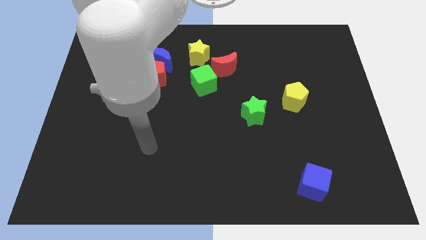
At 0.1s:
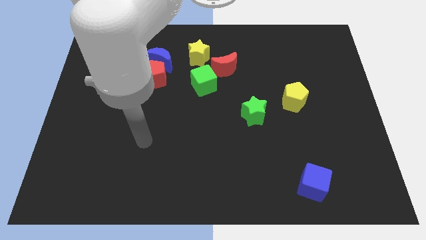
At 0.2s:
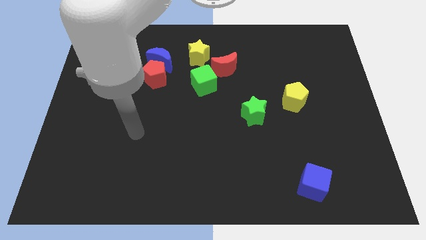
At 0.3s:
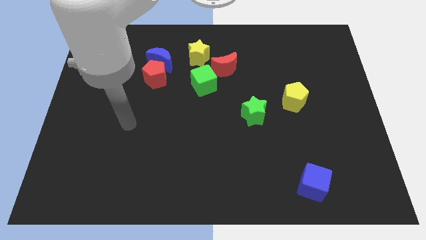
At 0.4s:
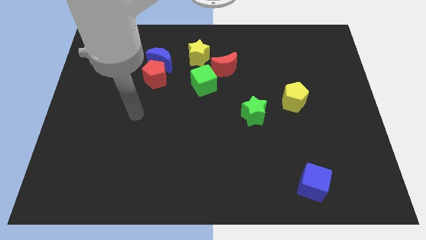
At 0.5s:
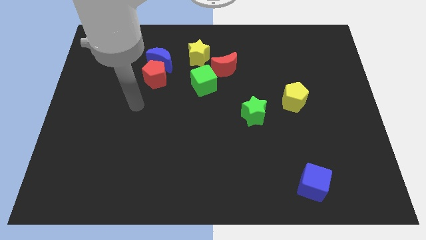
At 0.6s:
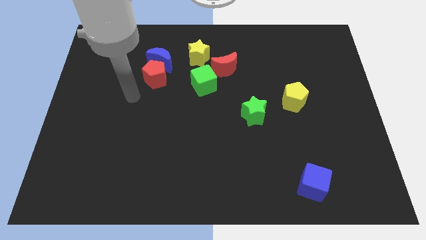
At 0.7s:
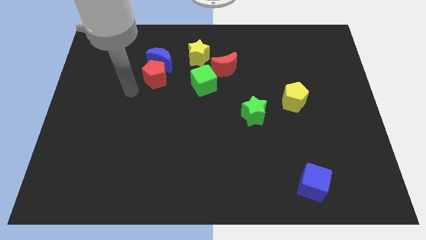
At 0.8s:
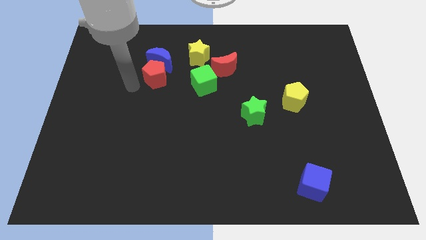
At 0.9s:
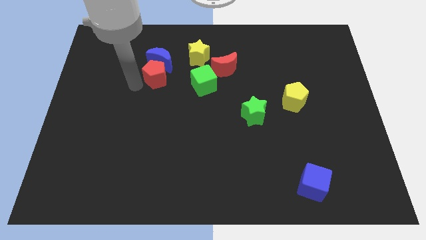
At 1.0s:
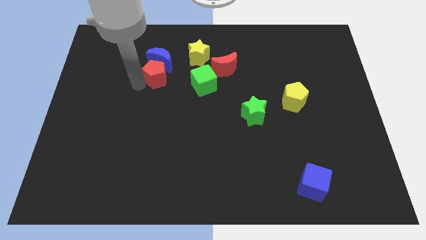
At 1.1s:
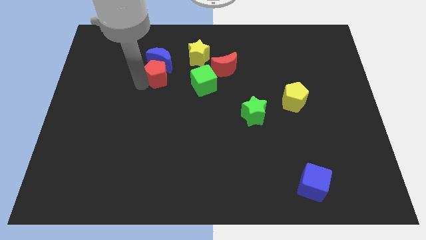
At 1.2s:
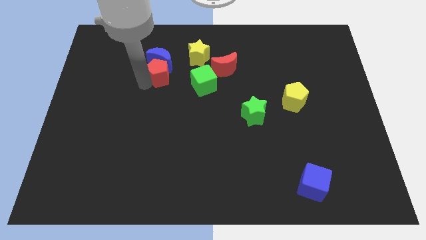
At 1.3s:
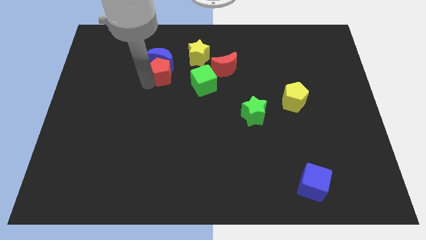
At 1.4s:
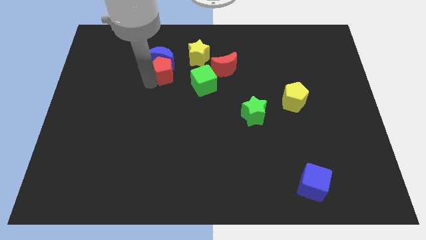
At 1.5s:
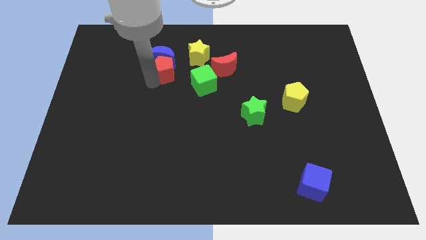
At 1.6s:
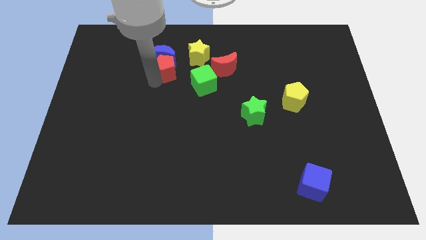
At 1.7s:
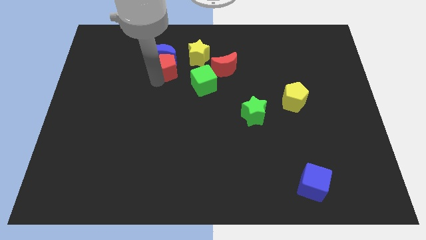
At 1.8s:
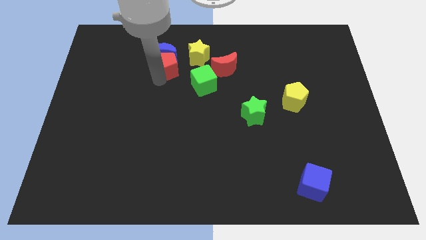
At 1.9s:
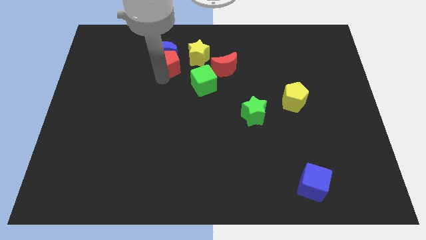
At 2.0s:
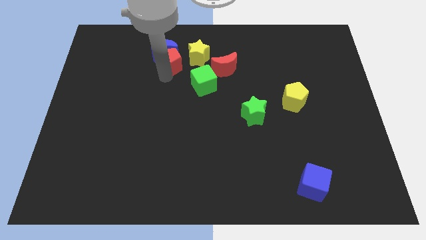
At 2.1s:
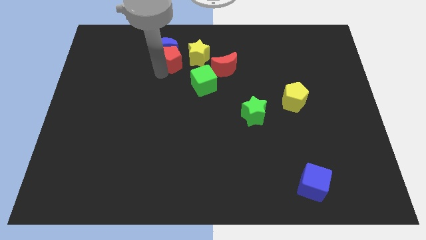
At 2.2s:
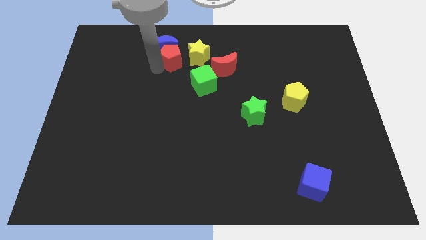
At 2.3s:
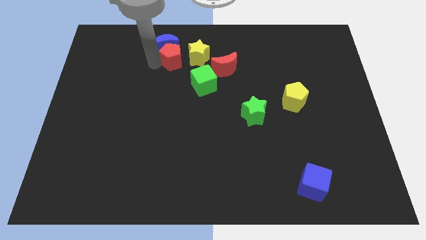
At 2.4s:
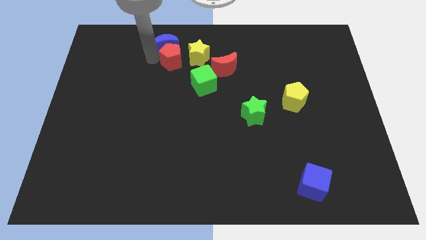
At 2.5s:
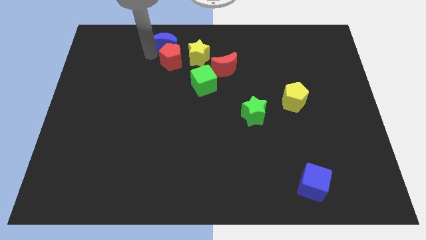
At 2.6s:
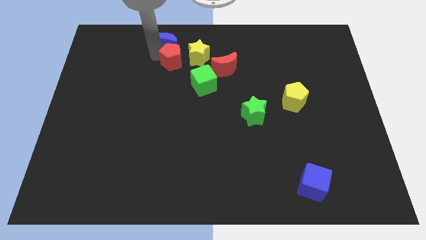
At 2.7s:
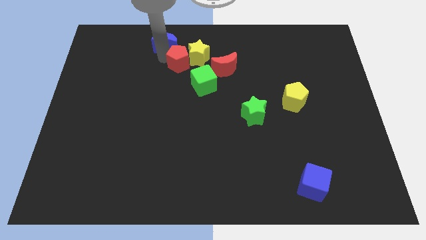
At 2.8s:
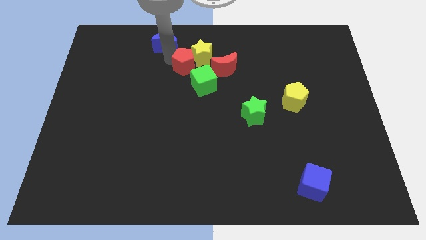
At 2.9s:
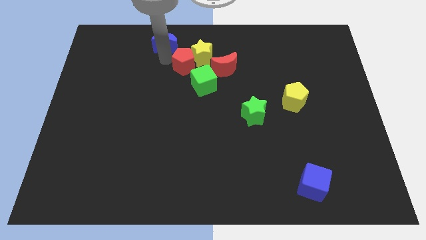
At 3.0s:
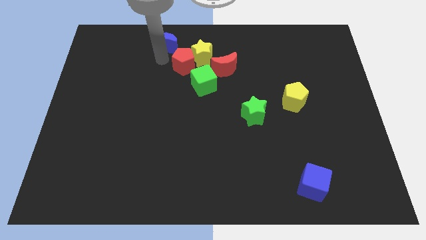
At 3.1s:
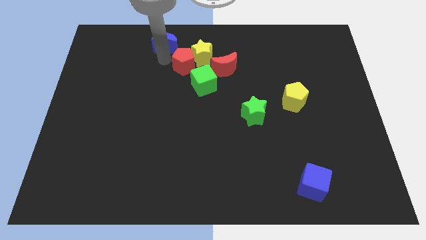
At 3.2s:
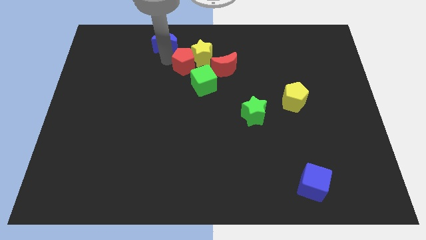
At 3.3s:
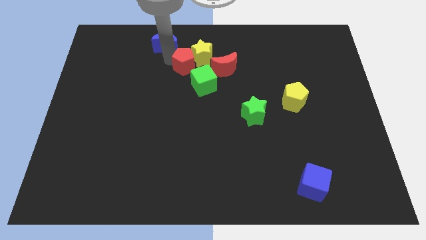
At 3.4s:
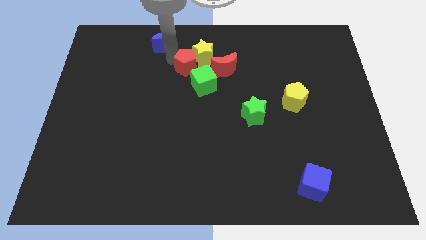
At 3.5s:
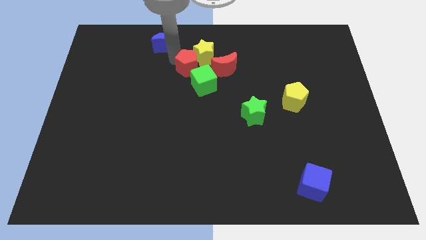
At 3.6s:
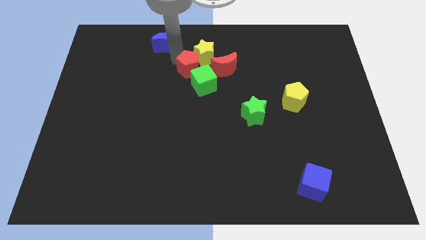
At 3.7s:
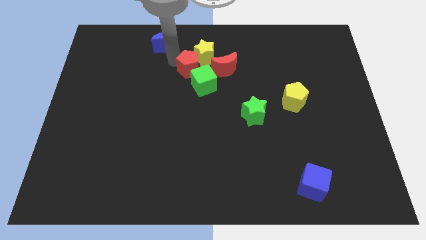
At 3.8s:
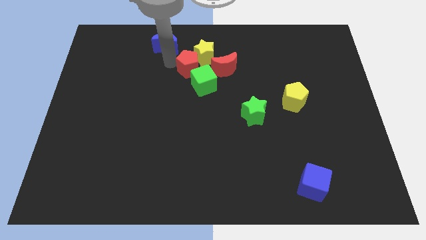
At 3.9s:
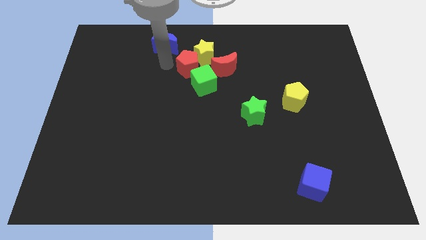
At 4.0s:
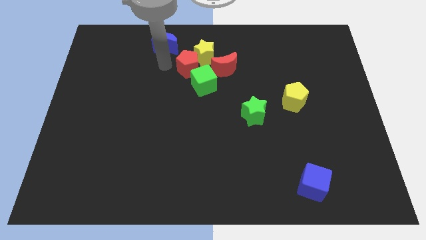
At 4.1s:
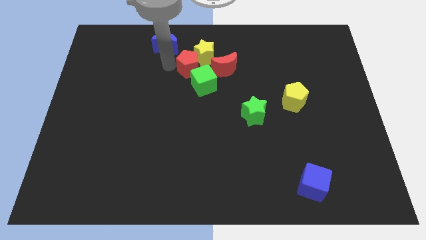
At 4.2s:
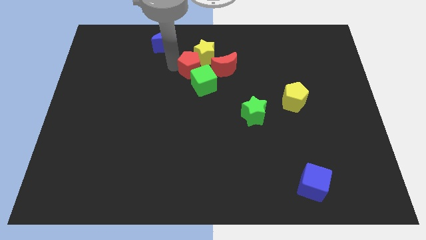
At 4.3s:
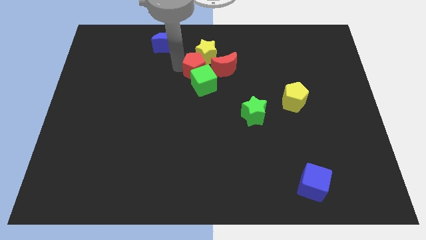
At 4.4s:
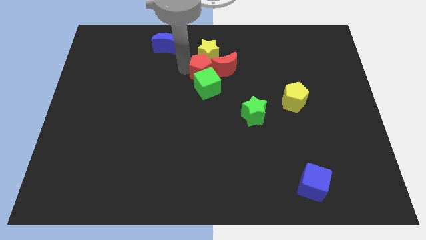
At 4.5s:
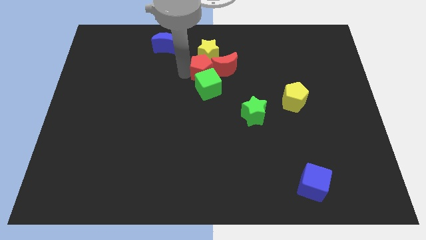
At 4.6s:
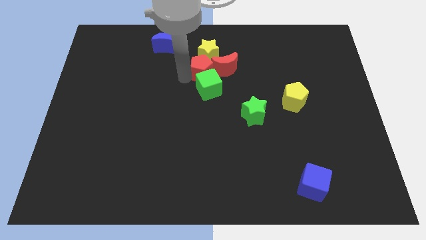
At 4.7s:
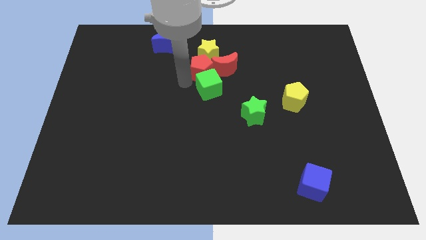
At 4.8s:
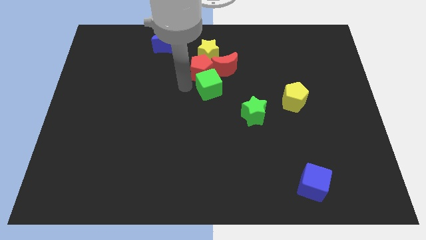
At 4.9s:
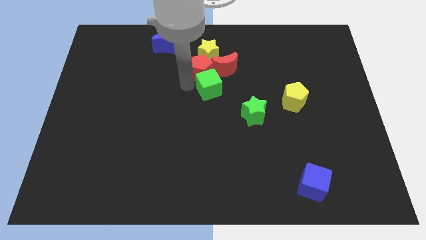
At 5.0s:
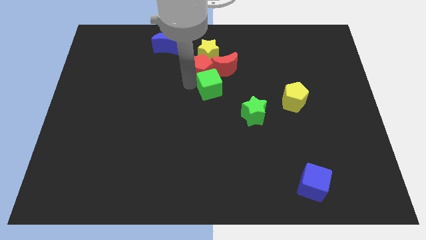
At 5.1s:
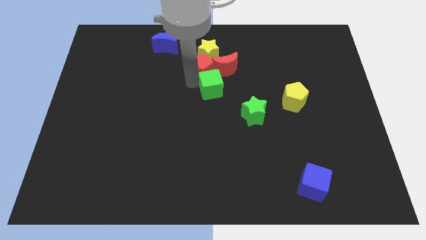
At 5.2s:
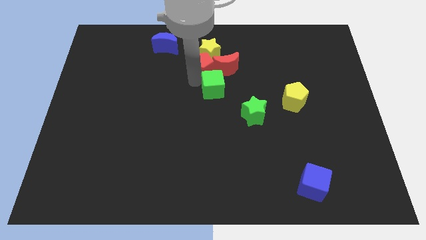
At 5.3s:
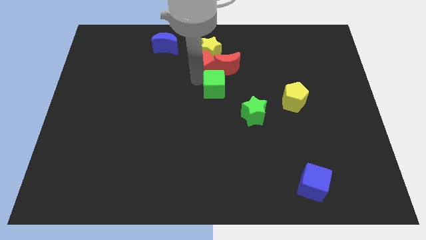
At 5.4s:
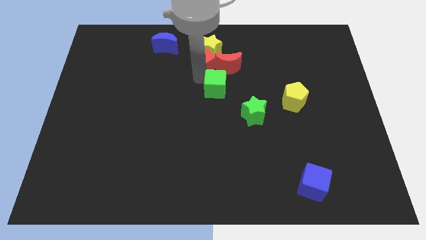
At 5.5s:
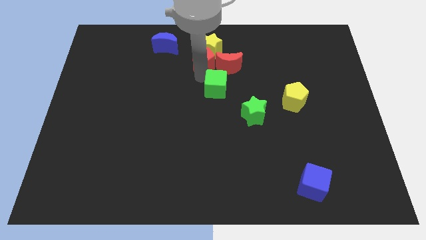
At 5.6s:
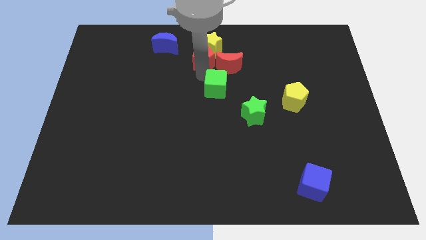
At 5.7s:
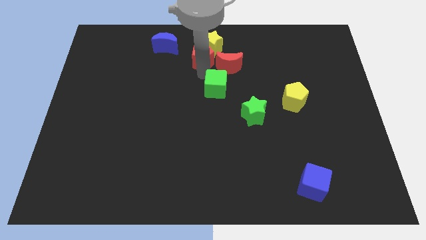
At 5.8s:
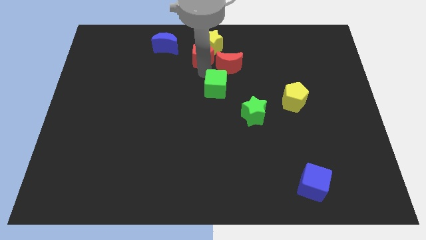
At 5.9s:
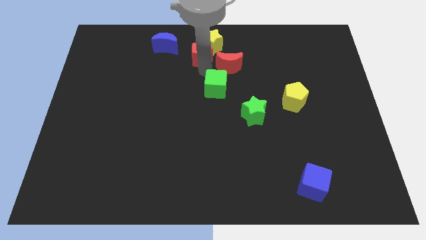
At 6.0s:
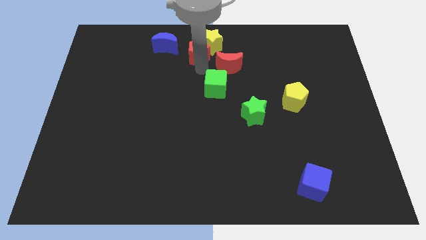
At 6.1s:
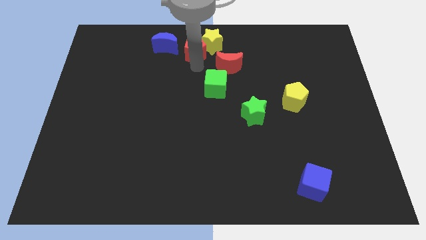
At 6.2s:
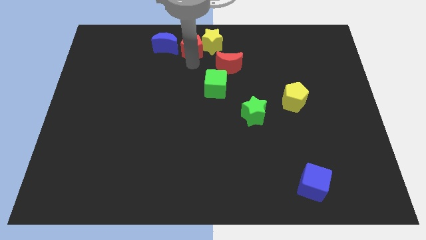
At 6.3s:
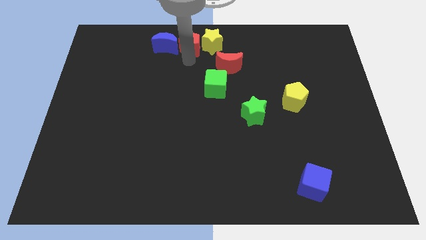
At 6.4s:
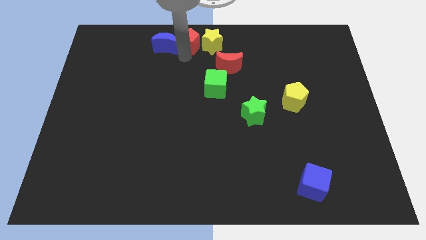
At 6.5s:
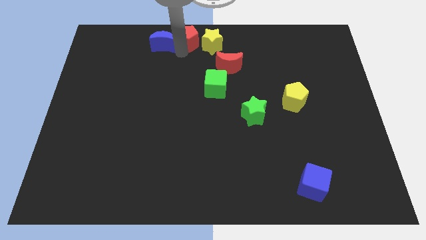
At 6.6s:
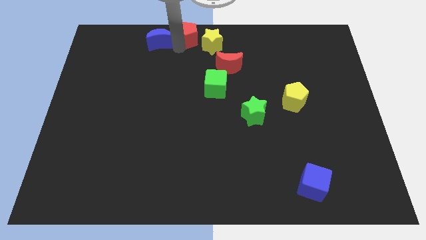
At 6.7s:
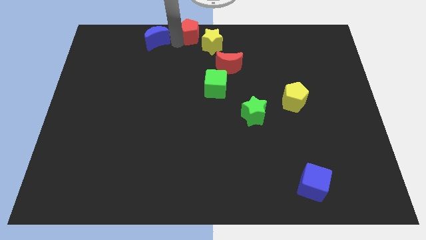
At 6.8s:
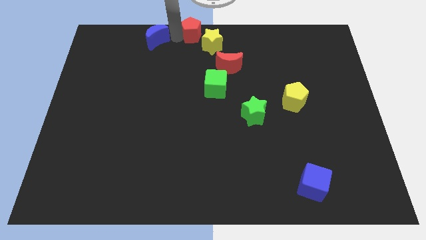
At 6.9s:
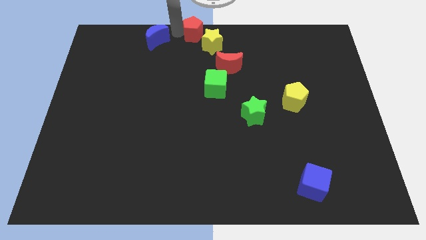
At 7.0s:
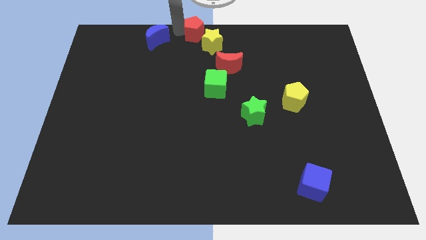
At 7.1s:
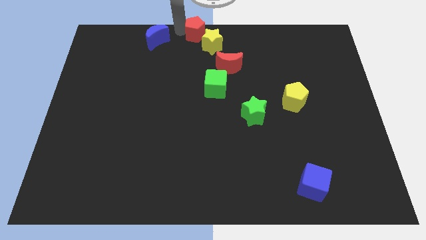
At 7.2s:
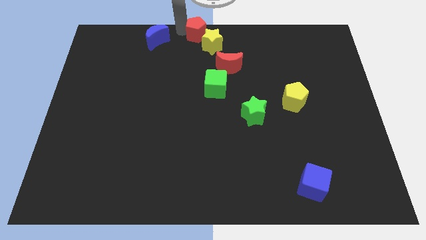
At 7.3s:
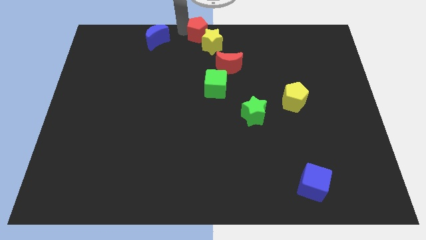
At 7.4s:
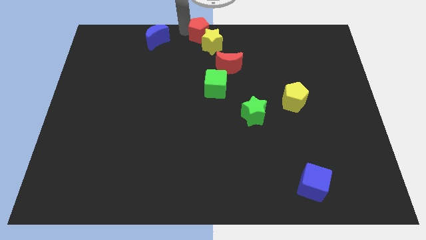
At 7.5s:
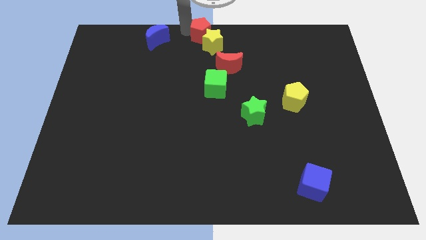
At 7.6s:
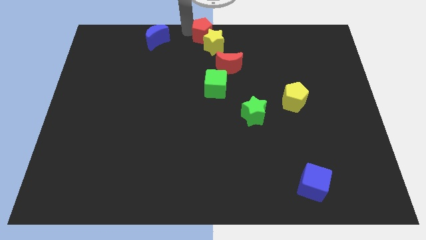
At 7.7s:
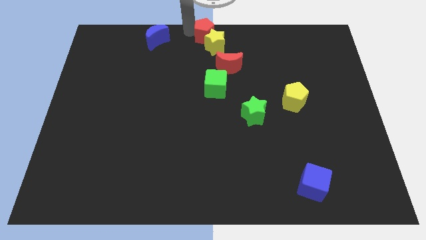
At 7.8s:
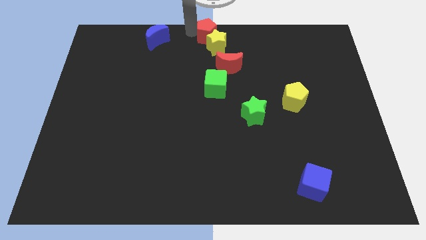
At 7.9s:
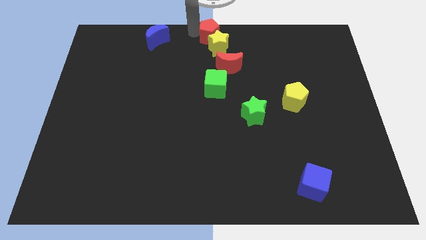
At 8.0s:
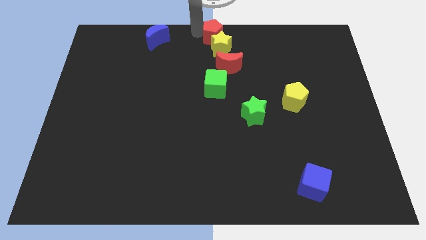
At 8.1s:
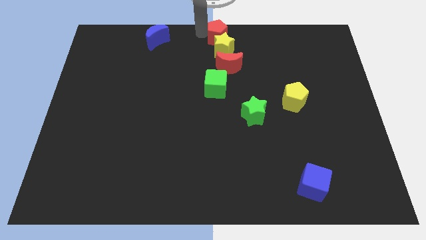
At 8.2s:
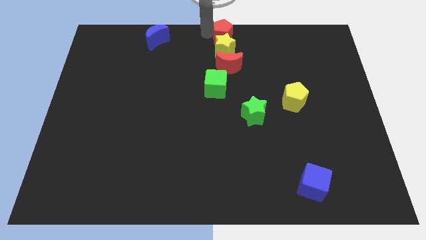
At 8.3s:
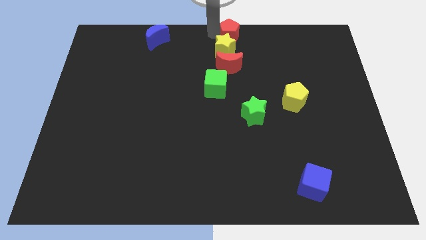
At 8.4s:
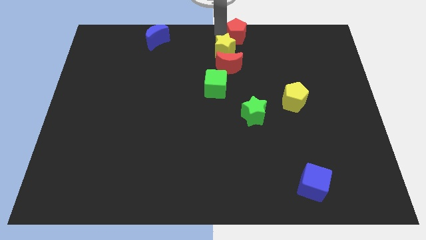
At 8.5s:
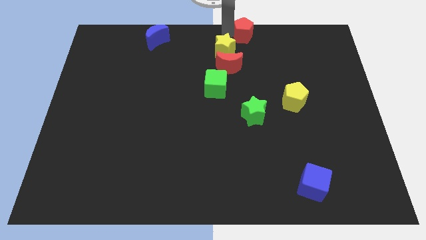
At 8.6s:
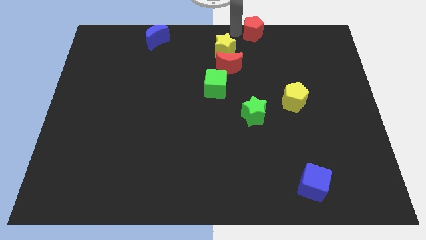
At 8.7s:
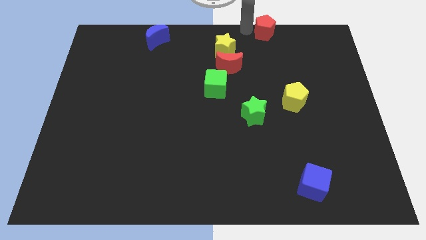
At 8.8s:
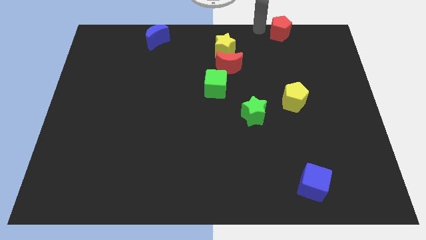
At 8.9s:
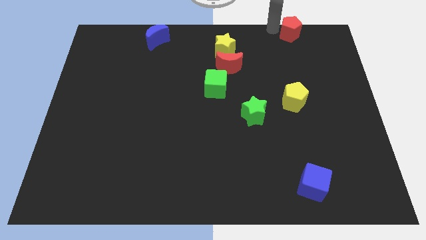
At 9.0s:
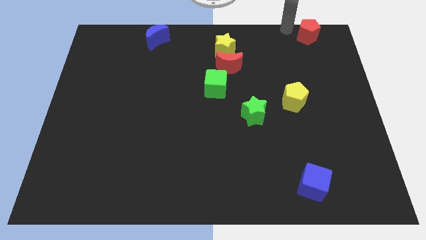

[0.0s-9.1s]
move the red pentagon to the top right of the board
